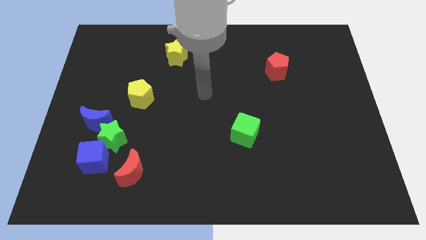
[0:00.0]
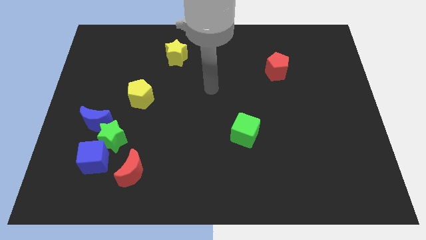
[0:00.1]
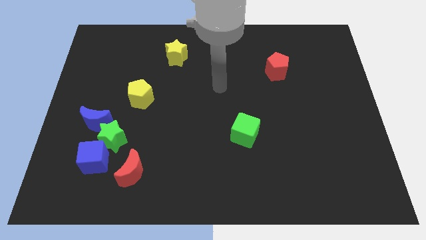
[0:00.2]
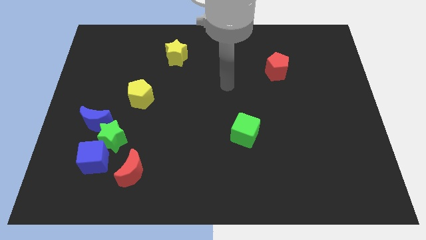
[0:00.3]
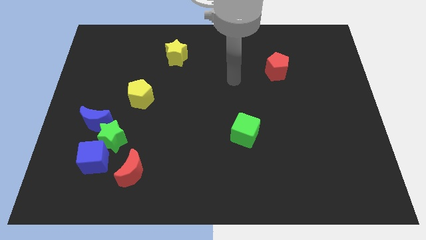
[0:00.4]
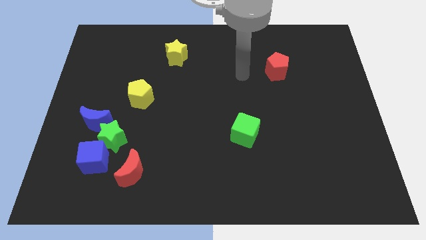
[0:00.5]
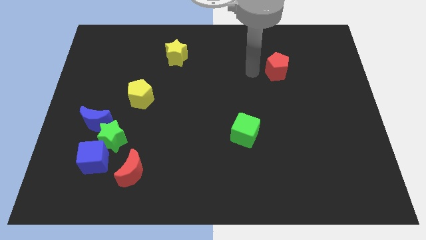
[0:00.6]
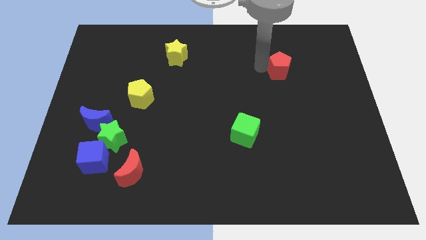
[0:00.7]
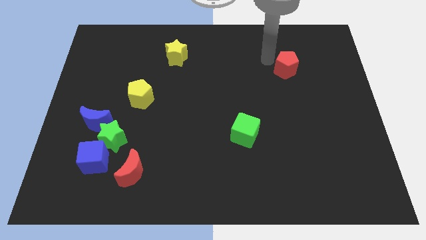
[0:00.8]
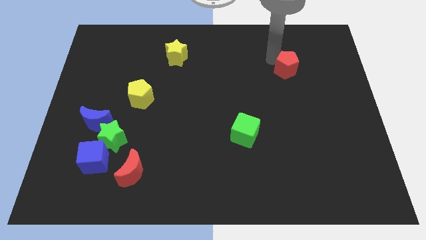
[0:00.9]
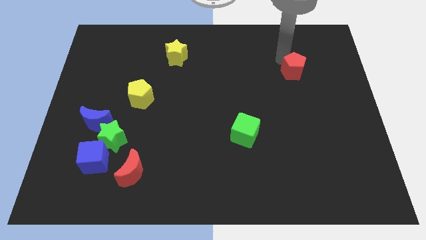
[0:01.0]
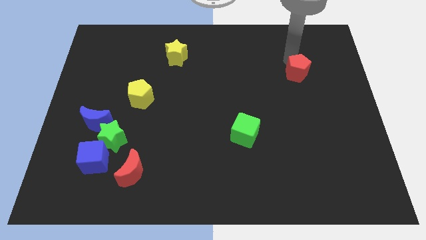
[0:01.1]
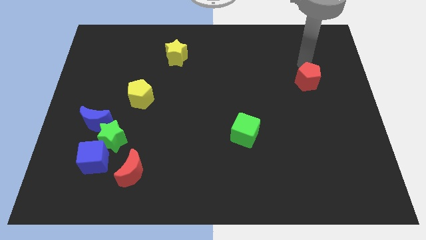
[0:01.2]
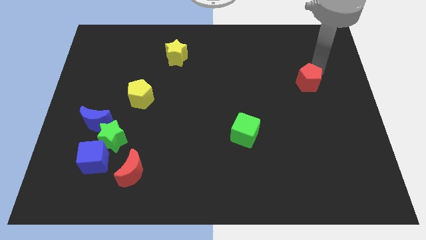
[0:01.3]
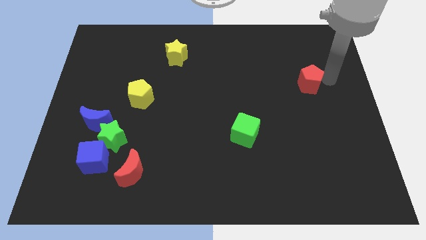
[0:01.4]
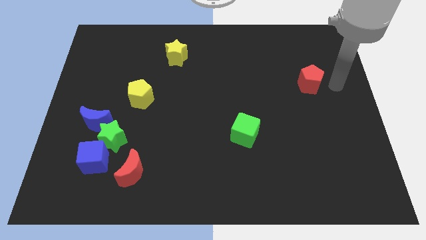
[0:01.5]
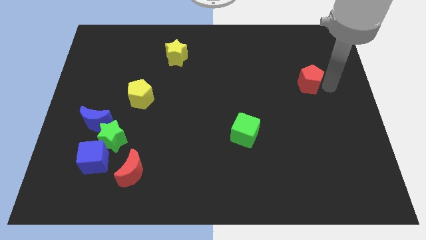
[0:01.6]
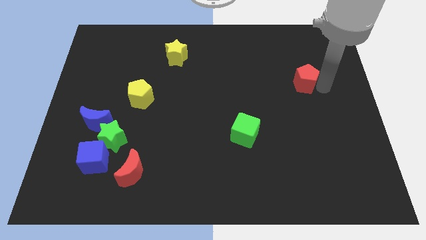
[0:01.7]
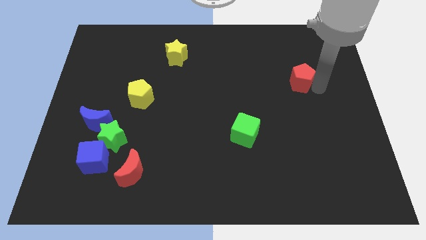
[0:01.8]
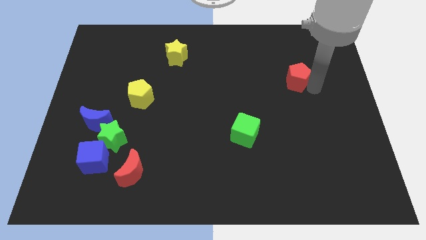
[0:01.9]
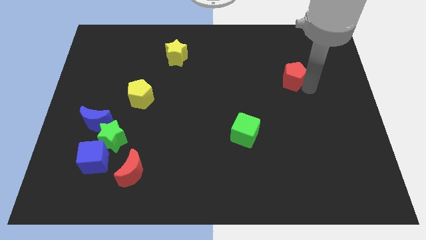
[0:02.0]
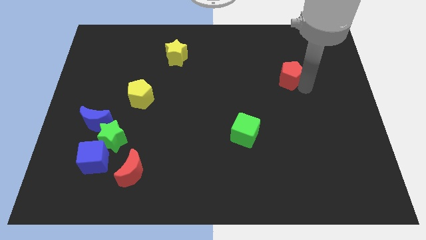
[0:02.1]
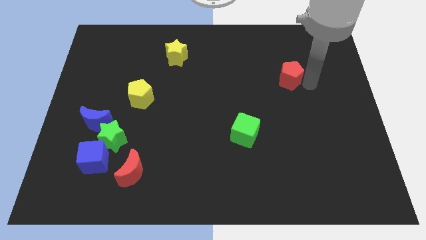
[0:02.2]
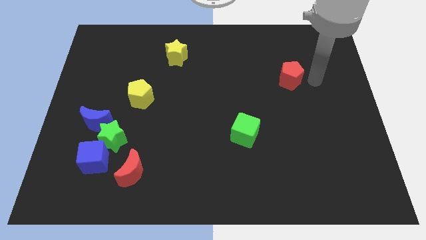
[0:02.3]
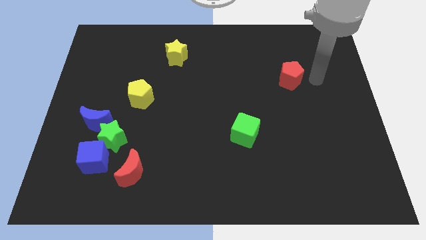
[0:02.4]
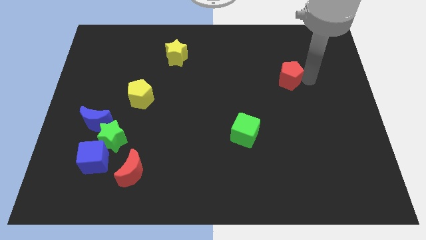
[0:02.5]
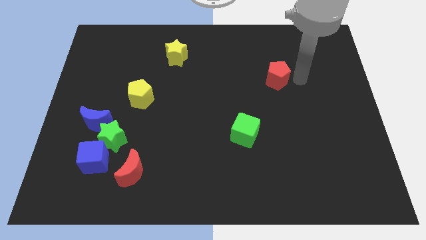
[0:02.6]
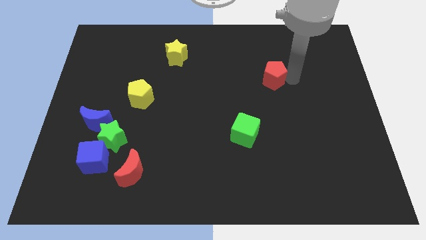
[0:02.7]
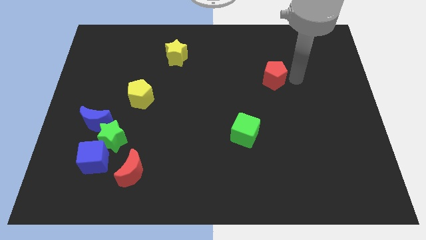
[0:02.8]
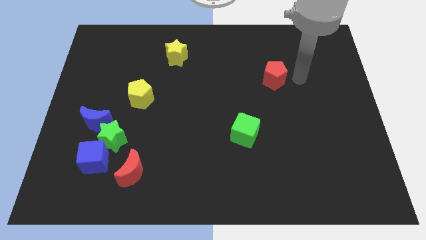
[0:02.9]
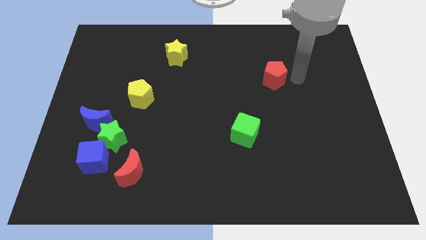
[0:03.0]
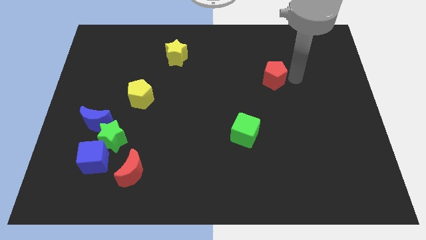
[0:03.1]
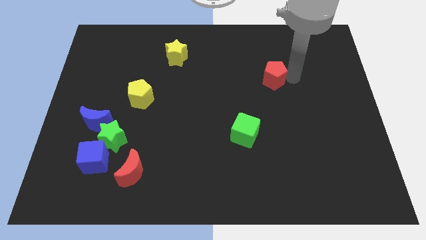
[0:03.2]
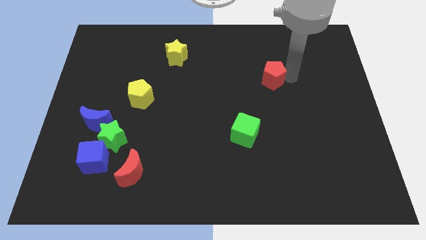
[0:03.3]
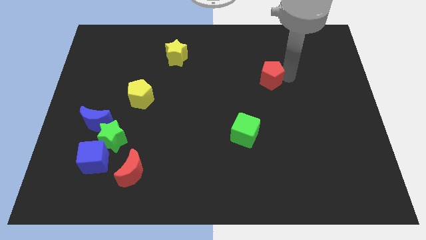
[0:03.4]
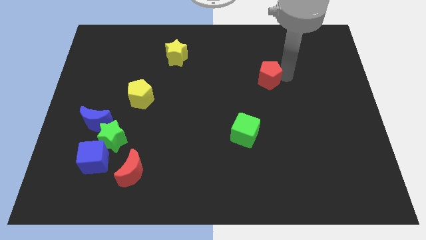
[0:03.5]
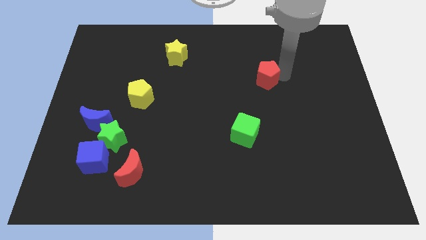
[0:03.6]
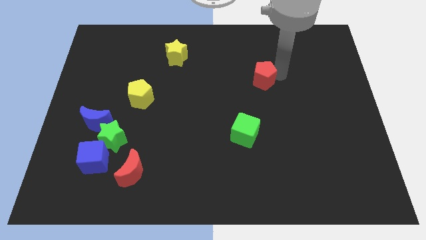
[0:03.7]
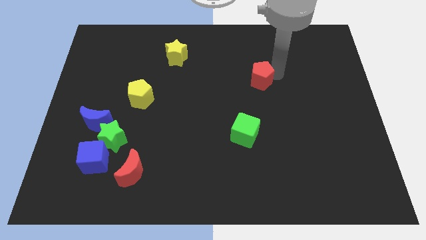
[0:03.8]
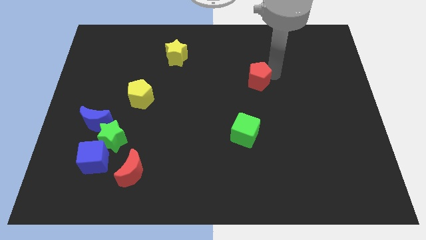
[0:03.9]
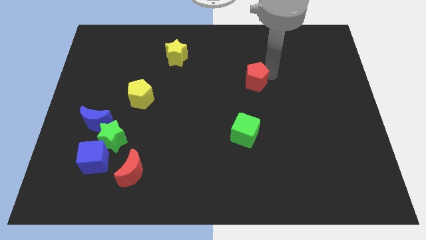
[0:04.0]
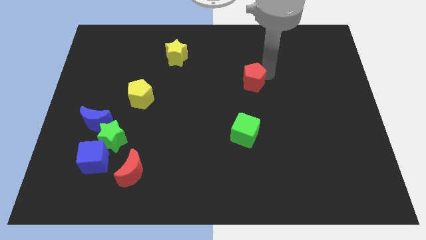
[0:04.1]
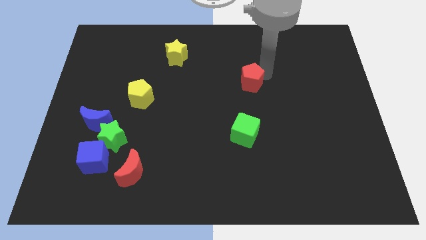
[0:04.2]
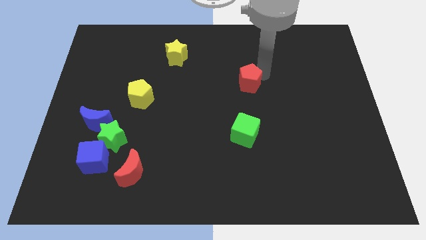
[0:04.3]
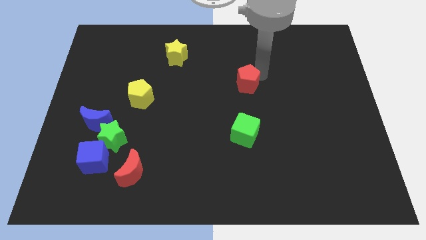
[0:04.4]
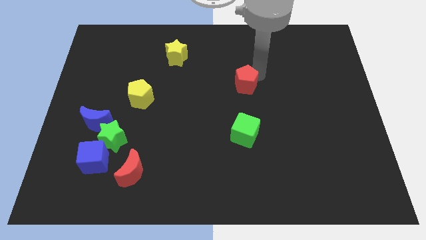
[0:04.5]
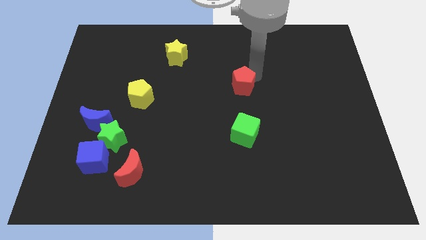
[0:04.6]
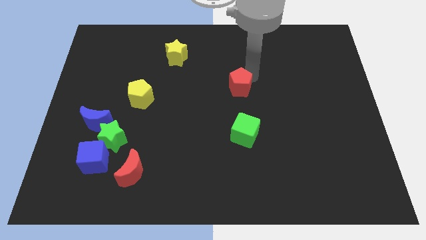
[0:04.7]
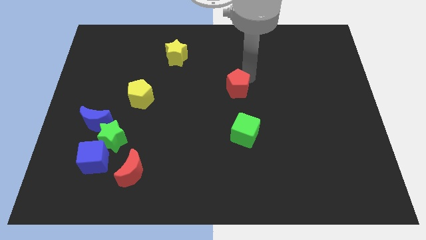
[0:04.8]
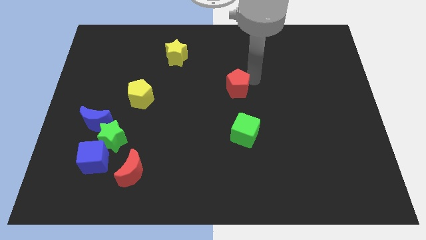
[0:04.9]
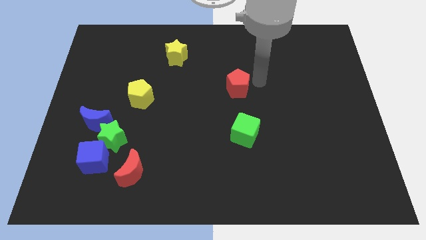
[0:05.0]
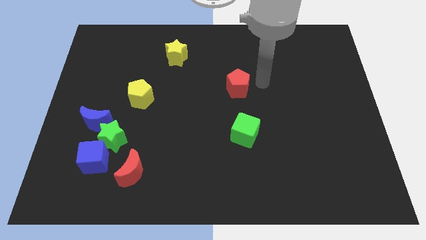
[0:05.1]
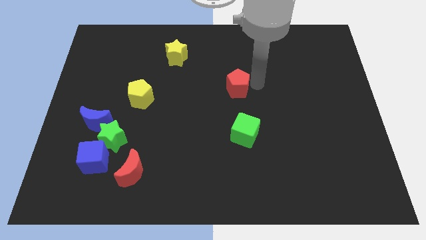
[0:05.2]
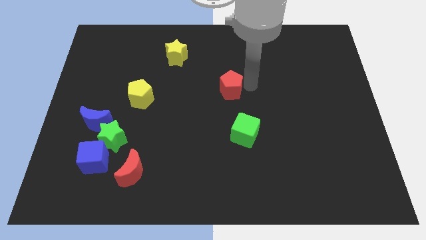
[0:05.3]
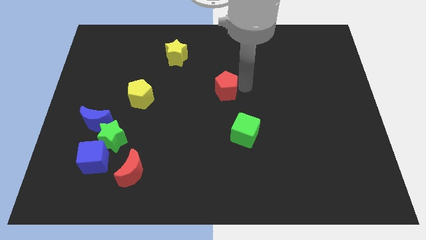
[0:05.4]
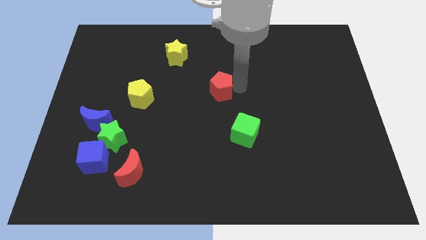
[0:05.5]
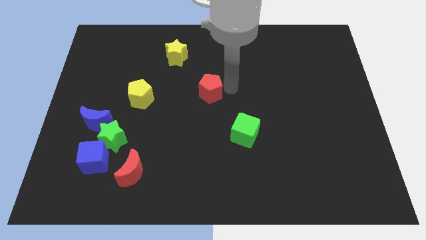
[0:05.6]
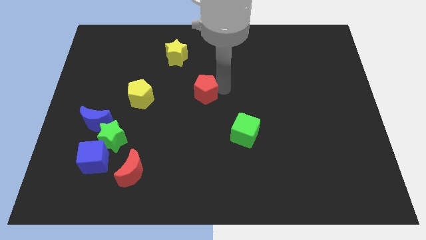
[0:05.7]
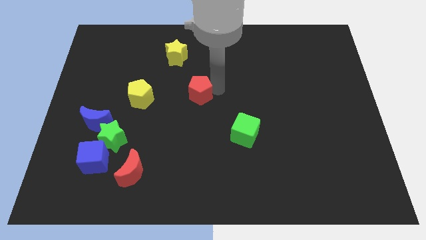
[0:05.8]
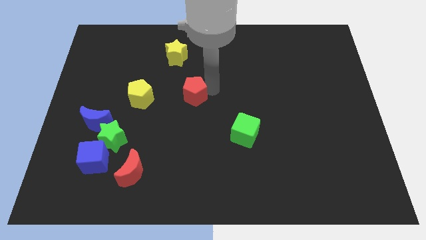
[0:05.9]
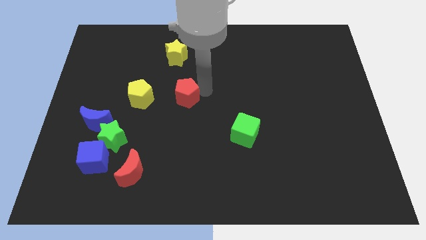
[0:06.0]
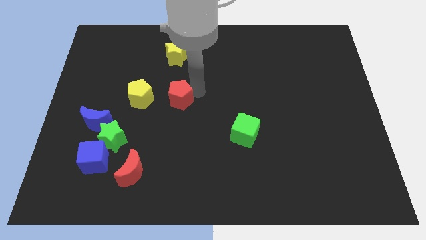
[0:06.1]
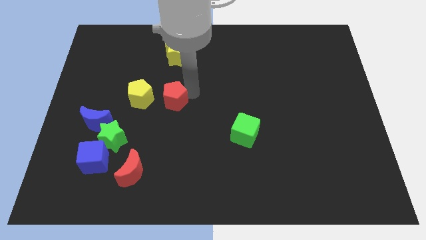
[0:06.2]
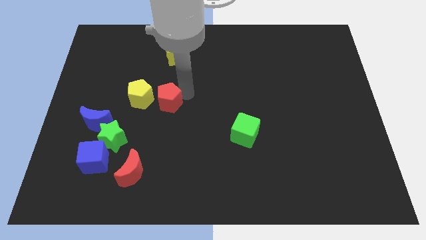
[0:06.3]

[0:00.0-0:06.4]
slide the red pentagon diagonally down and to the right of the yellow pentagon

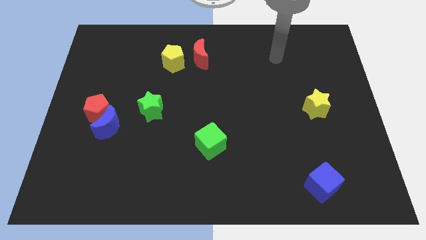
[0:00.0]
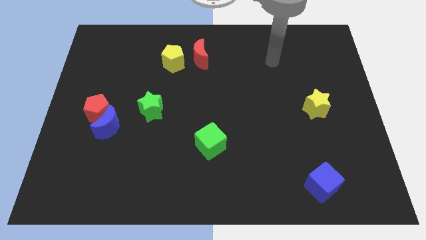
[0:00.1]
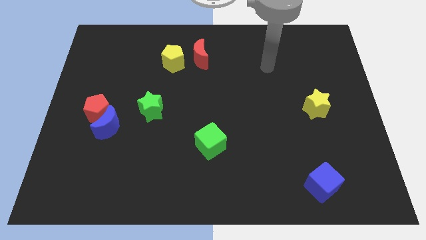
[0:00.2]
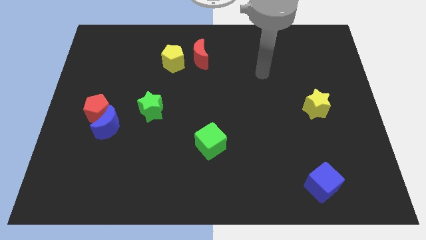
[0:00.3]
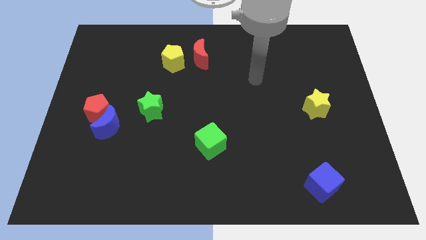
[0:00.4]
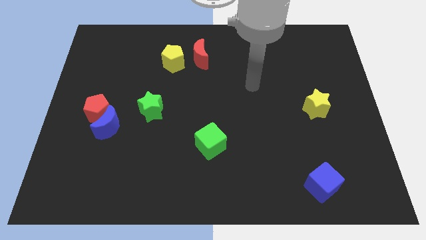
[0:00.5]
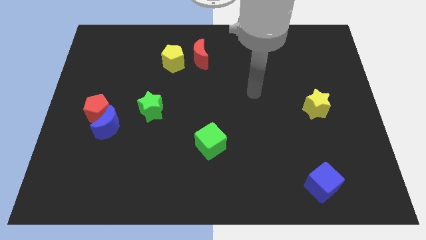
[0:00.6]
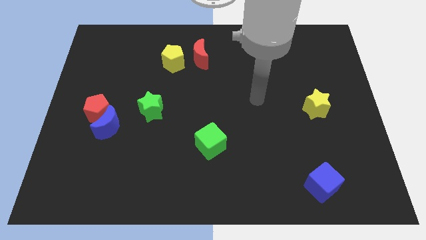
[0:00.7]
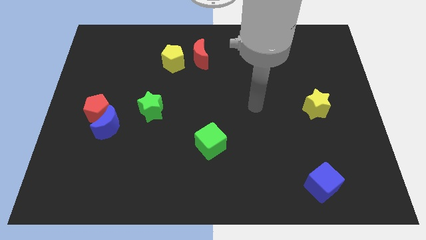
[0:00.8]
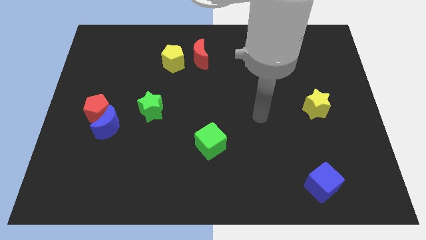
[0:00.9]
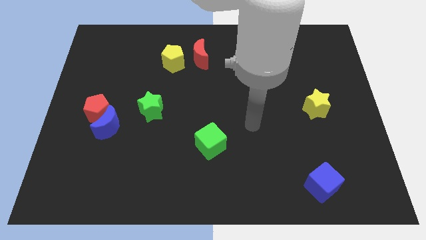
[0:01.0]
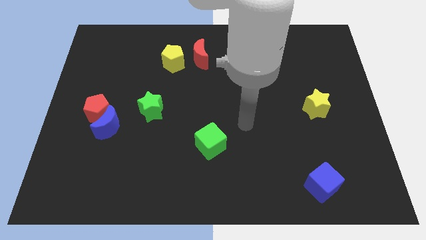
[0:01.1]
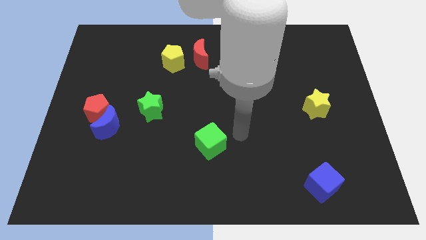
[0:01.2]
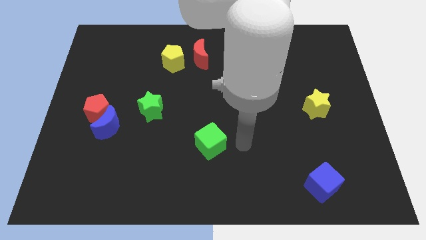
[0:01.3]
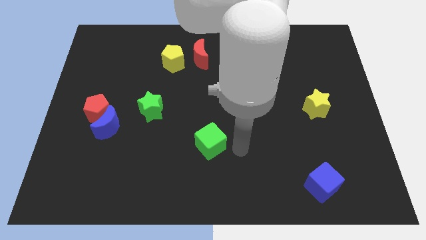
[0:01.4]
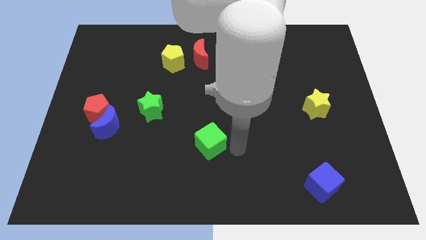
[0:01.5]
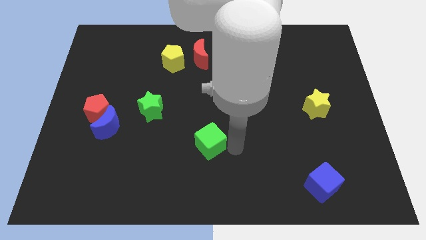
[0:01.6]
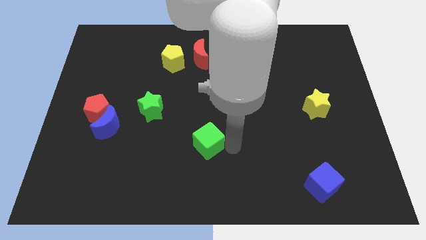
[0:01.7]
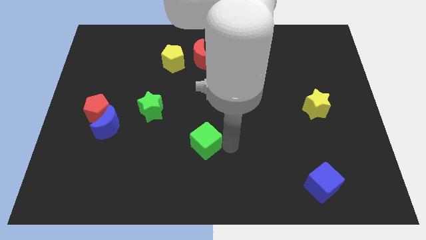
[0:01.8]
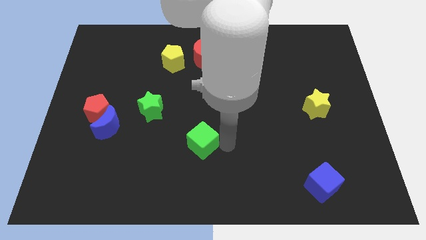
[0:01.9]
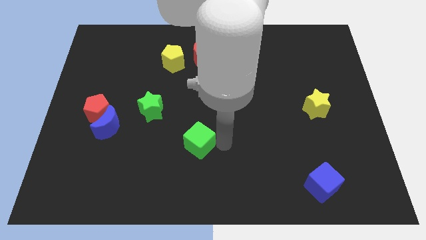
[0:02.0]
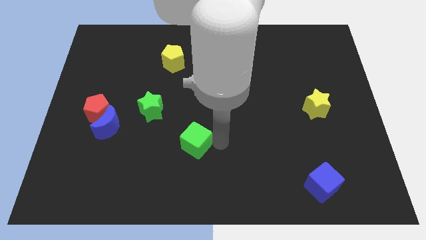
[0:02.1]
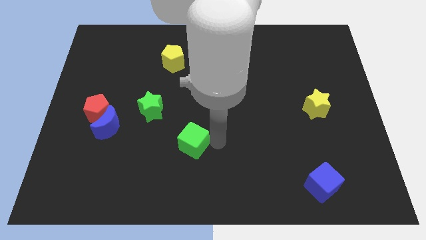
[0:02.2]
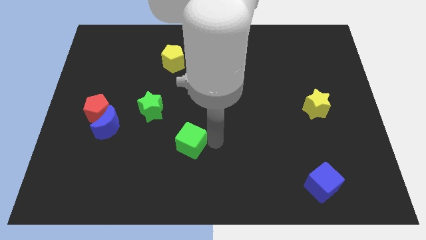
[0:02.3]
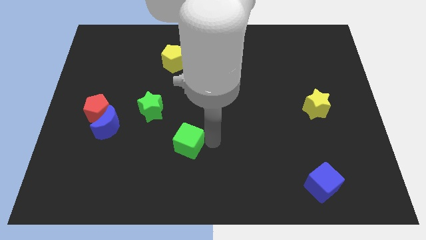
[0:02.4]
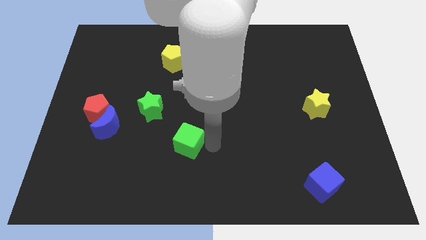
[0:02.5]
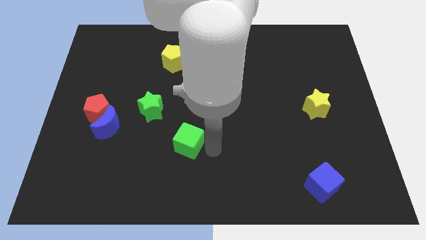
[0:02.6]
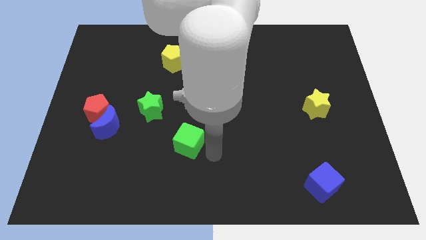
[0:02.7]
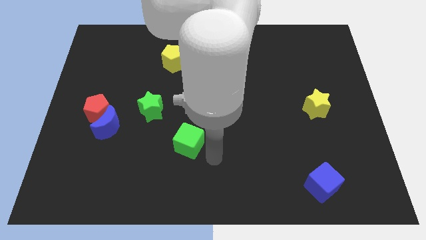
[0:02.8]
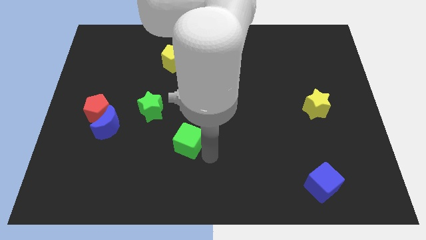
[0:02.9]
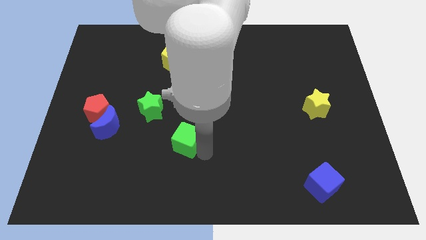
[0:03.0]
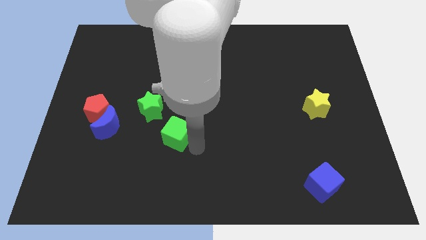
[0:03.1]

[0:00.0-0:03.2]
put the green cube to the right of the blue moon
